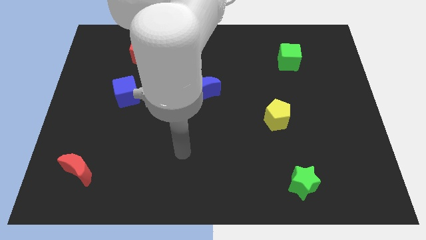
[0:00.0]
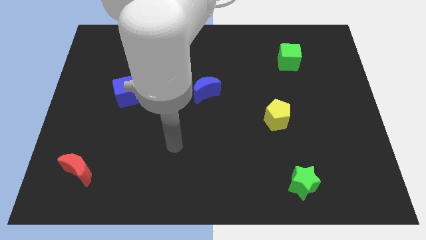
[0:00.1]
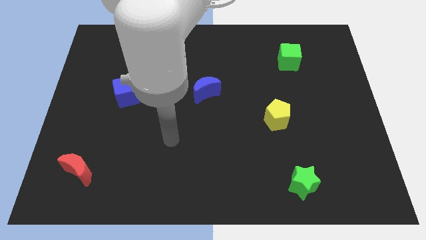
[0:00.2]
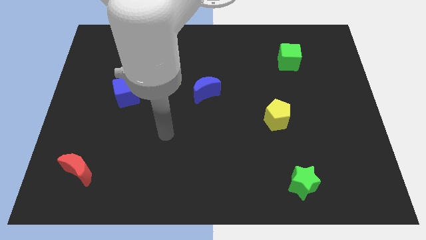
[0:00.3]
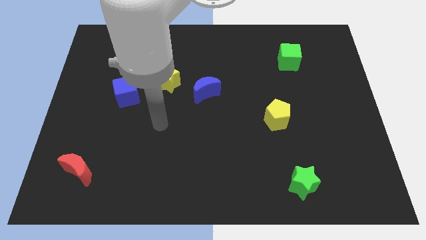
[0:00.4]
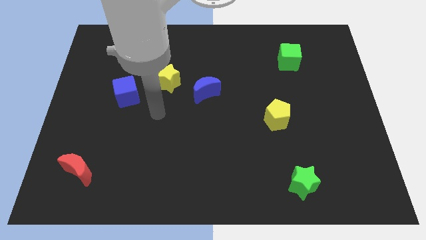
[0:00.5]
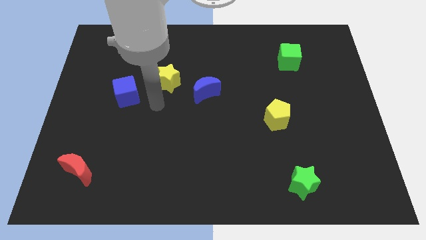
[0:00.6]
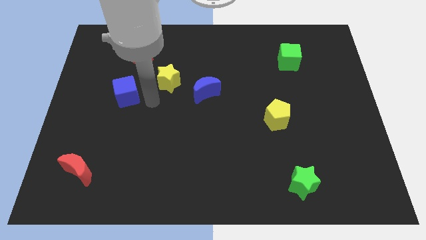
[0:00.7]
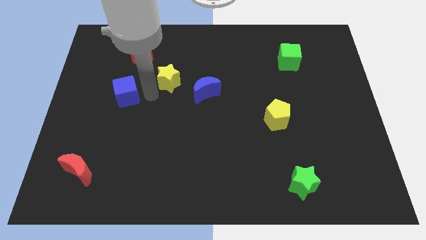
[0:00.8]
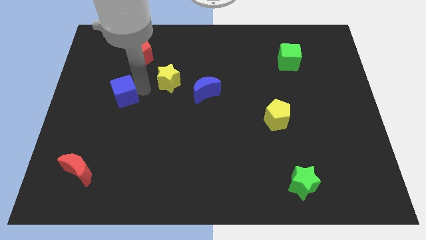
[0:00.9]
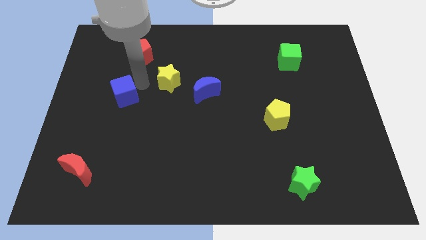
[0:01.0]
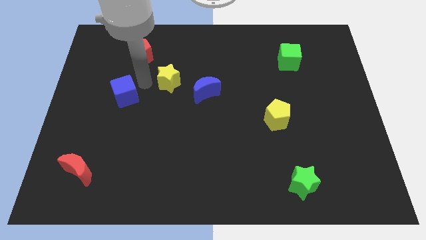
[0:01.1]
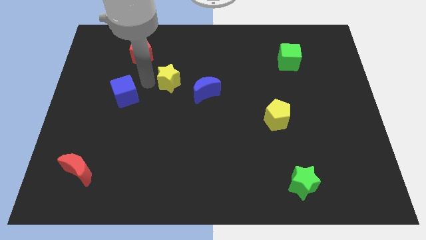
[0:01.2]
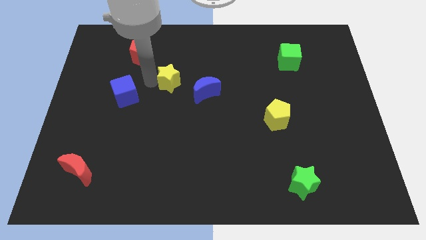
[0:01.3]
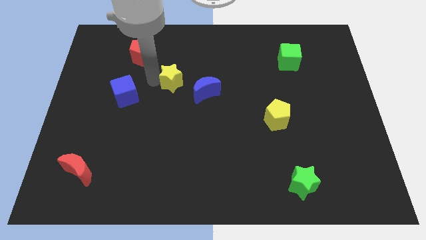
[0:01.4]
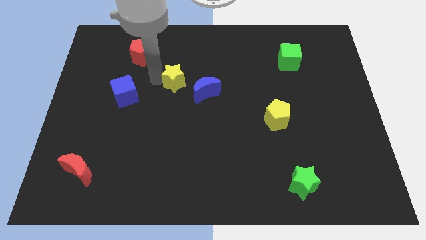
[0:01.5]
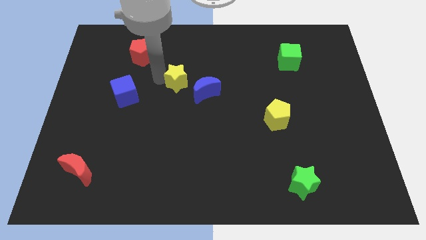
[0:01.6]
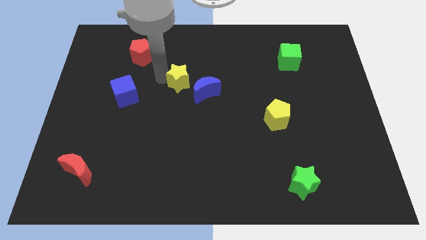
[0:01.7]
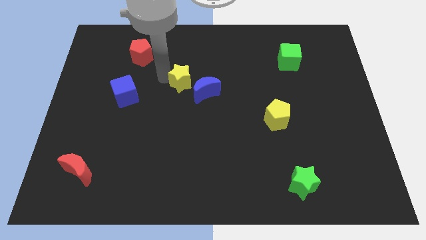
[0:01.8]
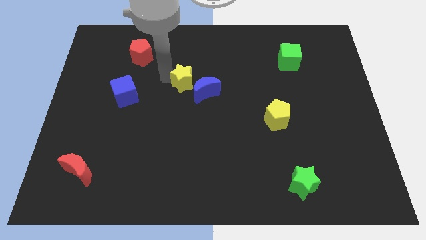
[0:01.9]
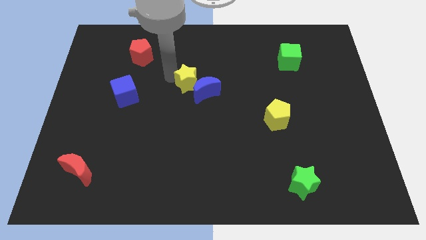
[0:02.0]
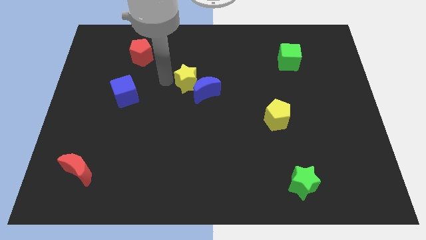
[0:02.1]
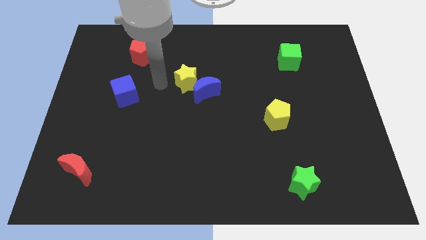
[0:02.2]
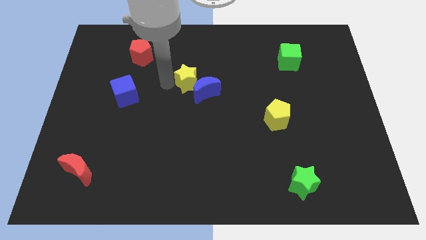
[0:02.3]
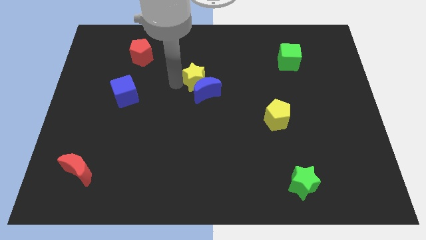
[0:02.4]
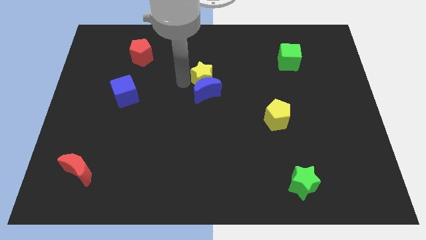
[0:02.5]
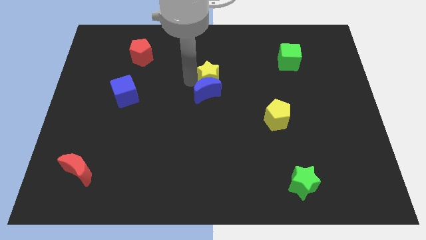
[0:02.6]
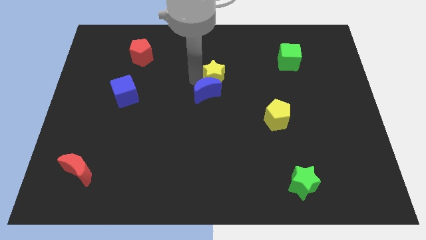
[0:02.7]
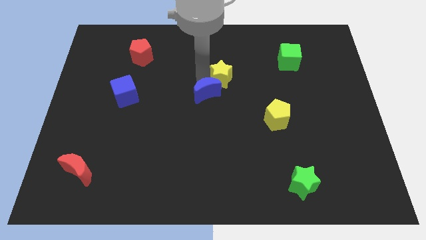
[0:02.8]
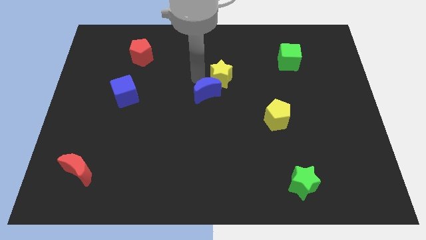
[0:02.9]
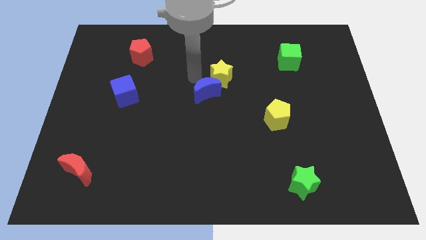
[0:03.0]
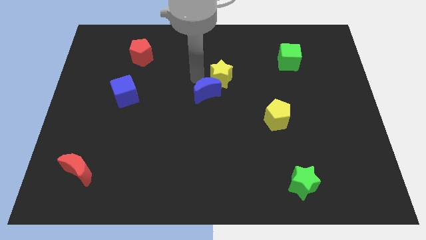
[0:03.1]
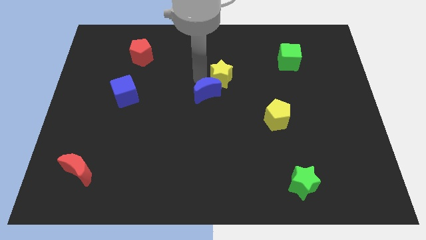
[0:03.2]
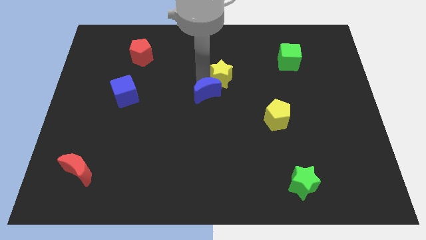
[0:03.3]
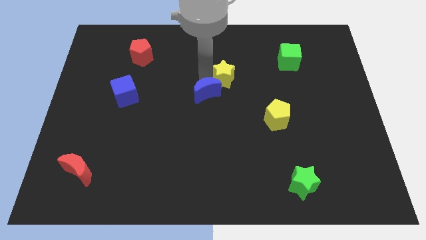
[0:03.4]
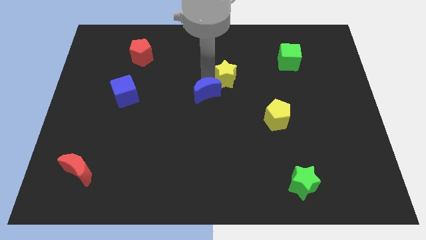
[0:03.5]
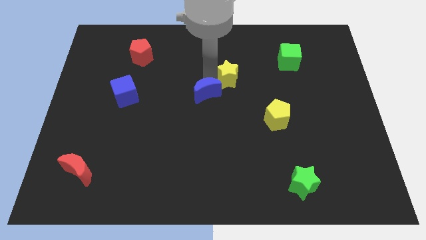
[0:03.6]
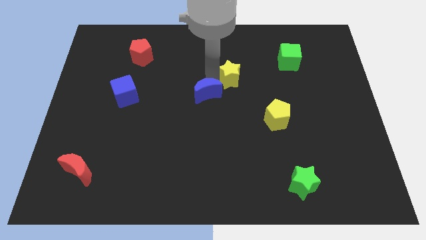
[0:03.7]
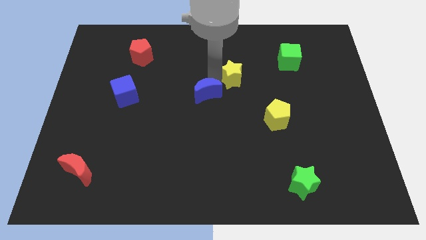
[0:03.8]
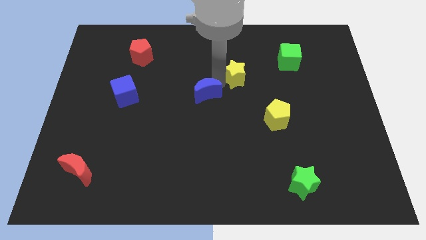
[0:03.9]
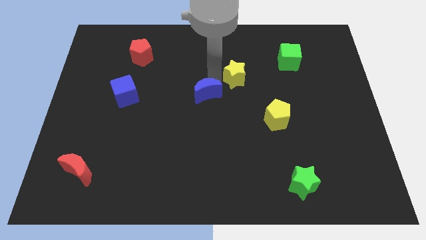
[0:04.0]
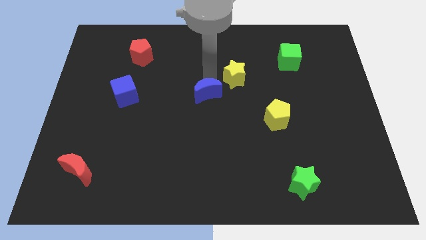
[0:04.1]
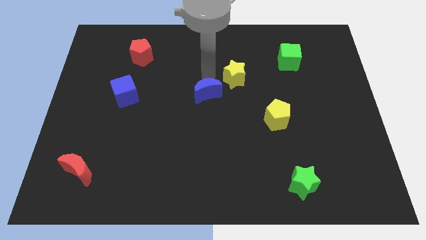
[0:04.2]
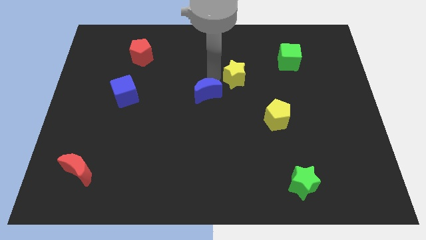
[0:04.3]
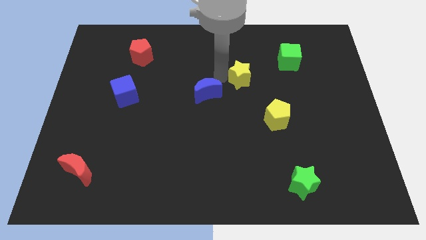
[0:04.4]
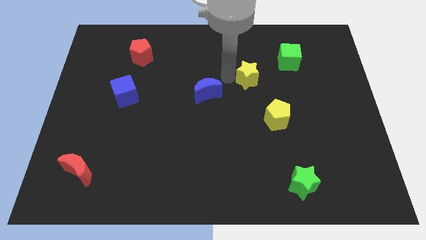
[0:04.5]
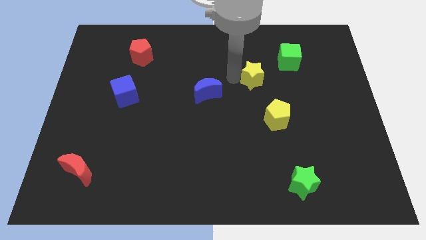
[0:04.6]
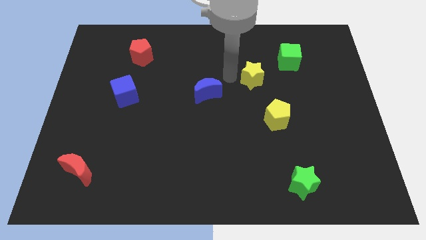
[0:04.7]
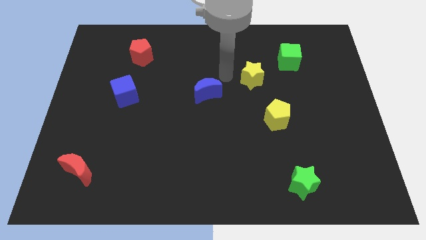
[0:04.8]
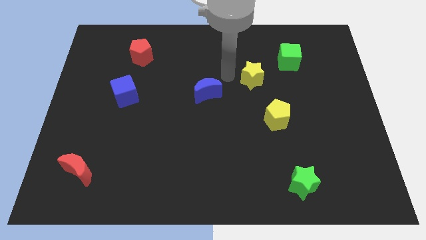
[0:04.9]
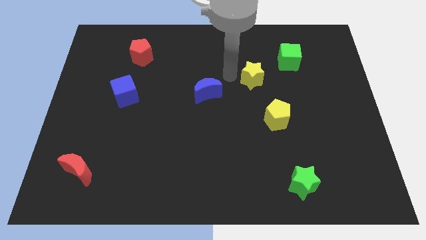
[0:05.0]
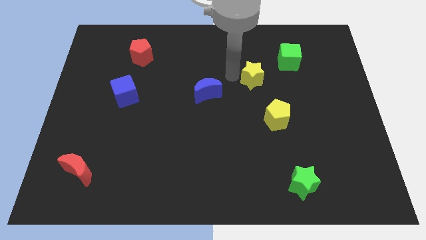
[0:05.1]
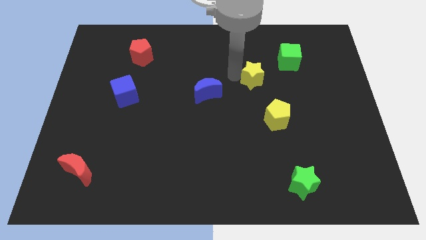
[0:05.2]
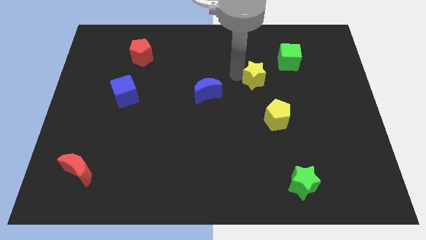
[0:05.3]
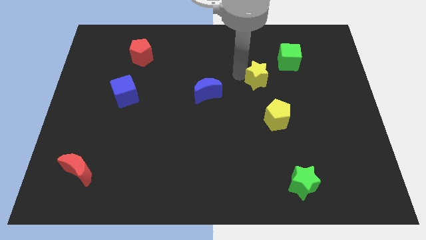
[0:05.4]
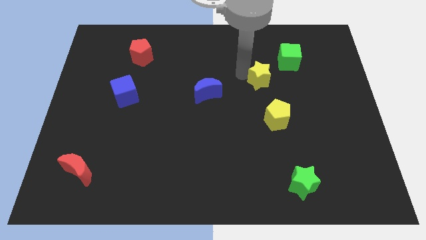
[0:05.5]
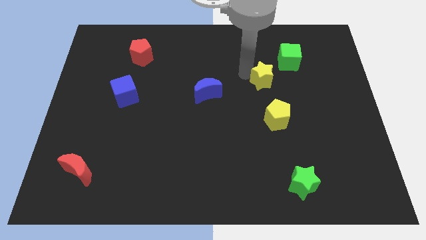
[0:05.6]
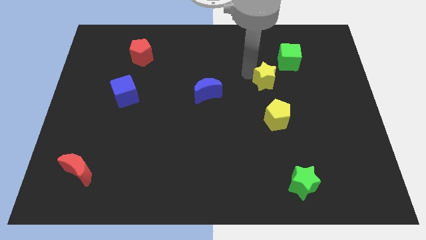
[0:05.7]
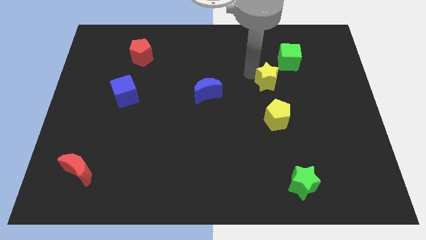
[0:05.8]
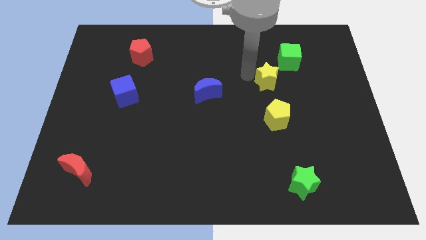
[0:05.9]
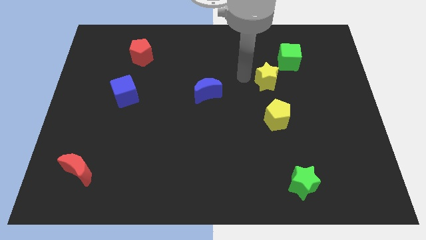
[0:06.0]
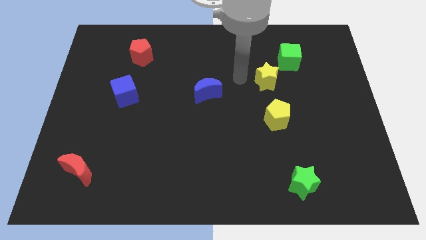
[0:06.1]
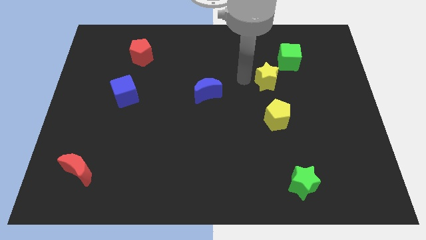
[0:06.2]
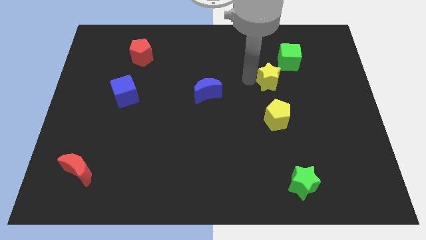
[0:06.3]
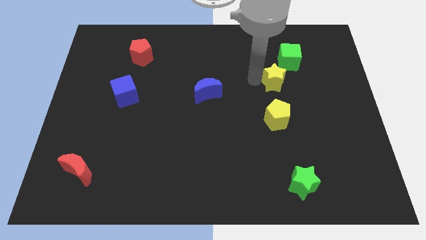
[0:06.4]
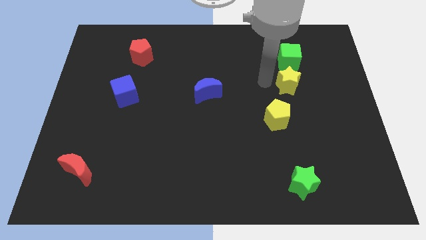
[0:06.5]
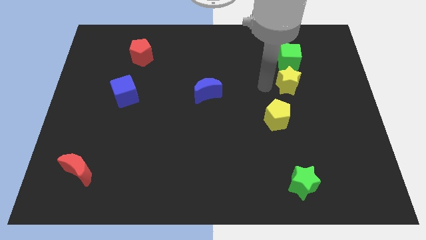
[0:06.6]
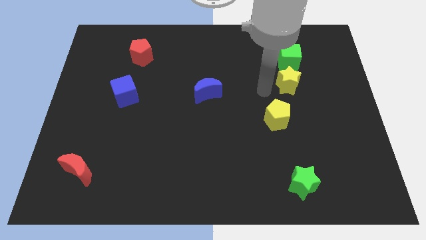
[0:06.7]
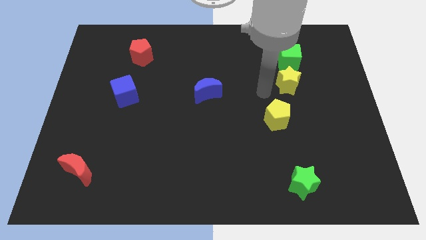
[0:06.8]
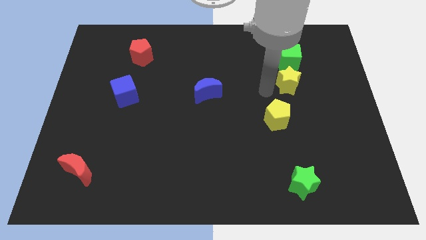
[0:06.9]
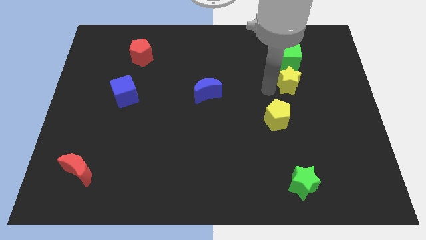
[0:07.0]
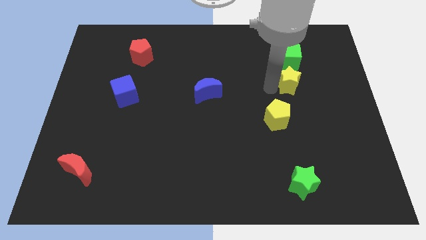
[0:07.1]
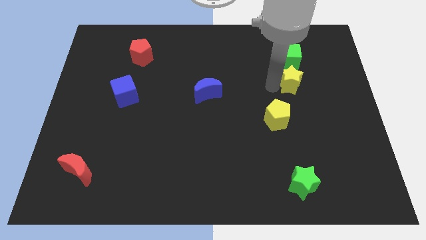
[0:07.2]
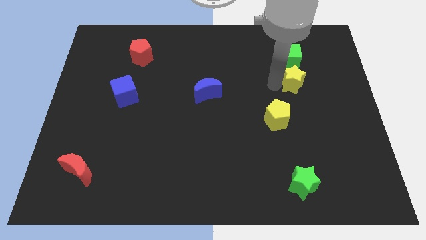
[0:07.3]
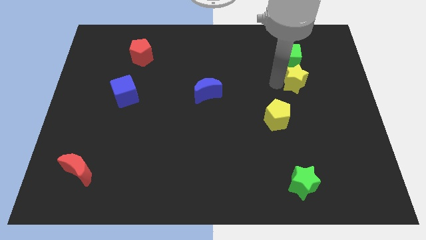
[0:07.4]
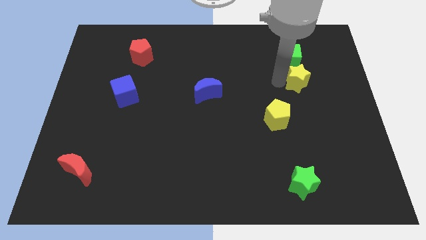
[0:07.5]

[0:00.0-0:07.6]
move the yellow star to the bottom right of the green cube
